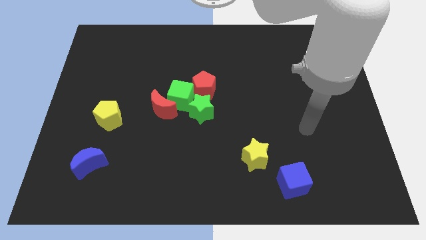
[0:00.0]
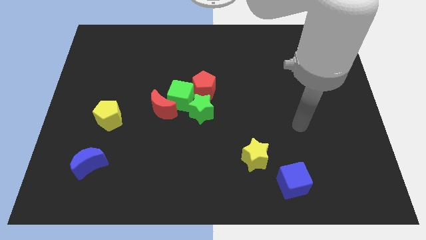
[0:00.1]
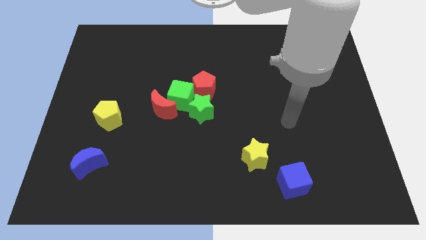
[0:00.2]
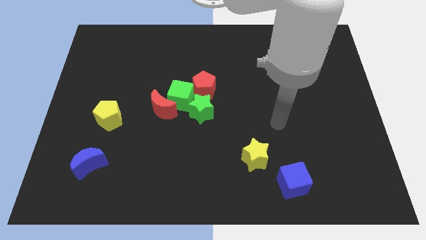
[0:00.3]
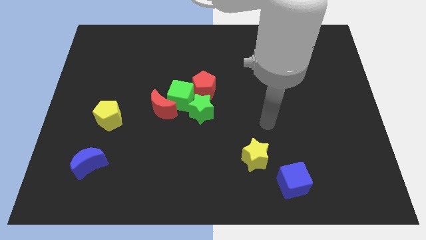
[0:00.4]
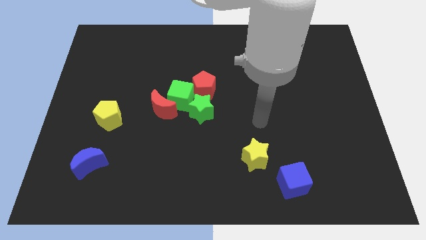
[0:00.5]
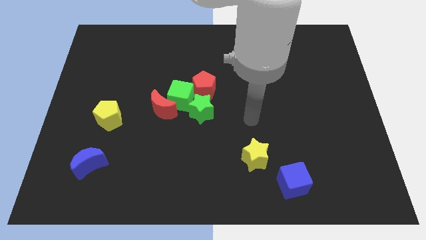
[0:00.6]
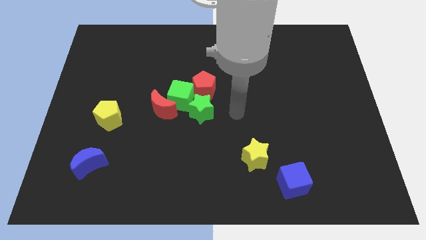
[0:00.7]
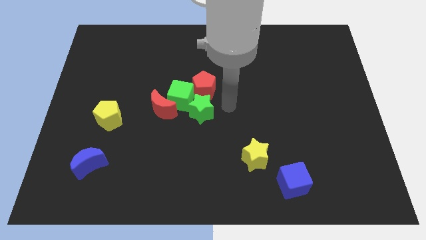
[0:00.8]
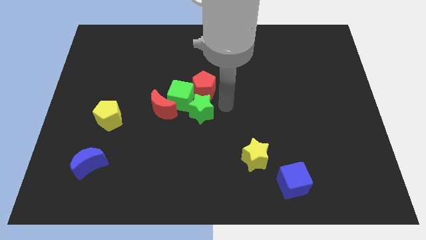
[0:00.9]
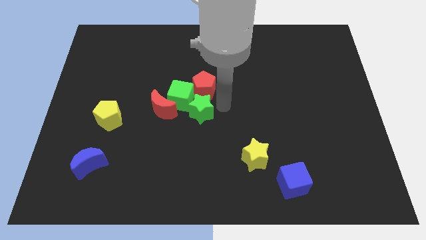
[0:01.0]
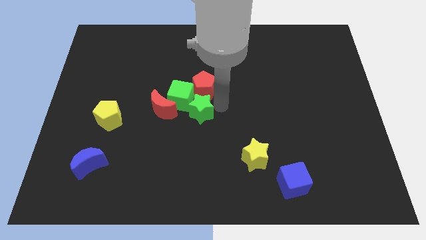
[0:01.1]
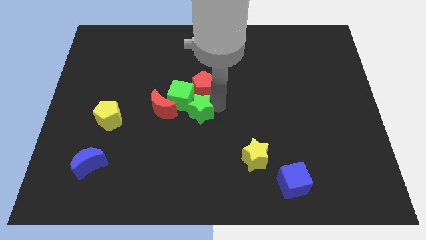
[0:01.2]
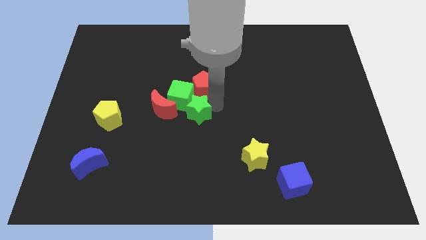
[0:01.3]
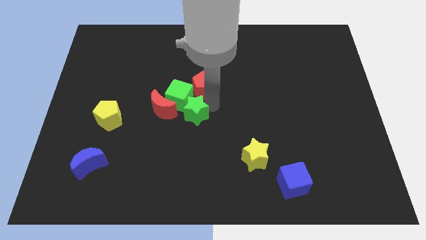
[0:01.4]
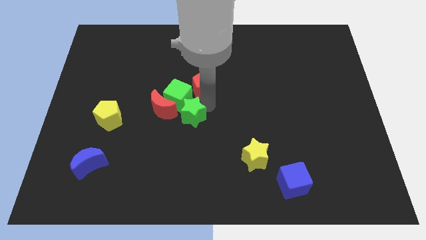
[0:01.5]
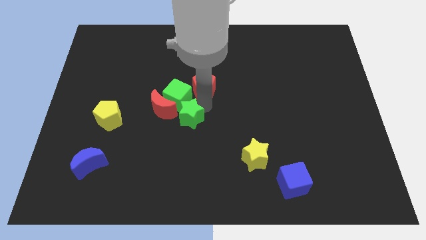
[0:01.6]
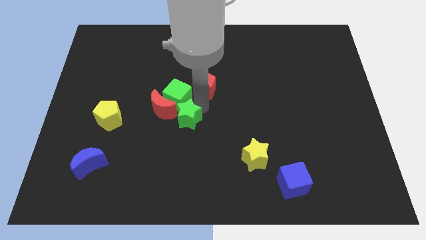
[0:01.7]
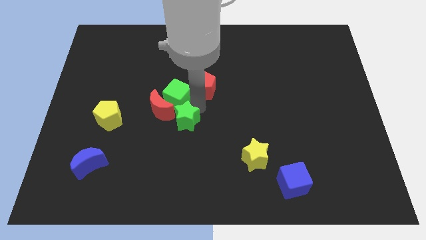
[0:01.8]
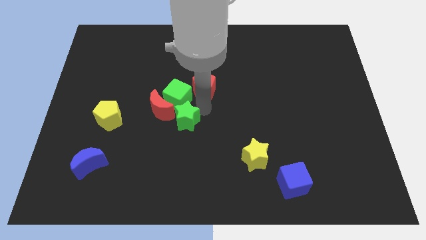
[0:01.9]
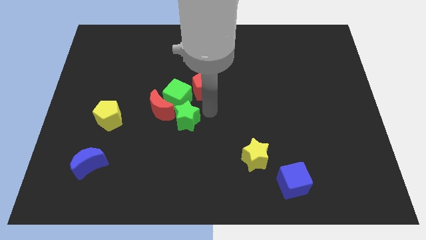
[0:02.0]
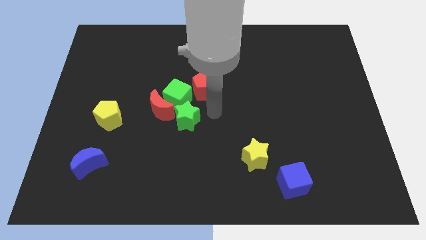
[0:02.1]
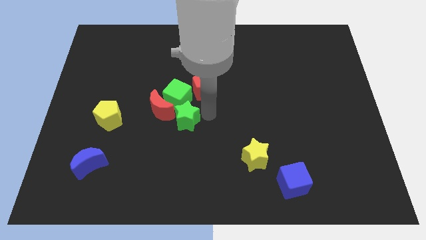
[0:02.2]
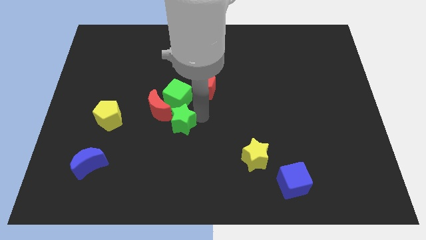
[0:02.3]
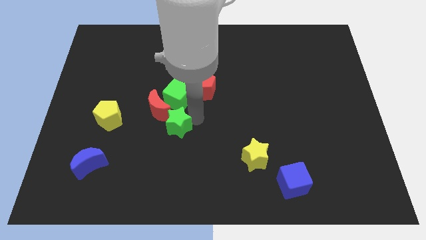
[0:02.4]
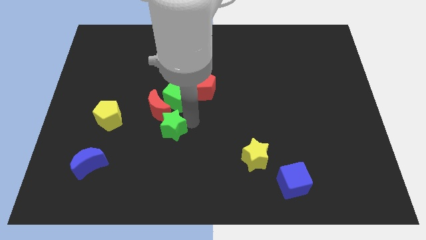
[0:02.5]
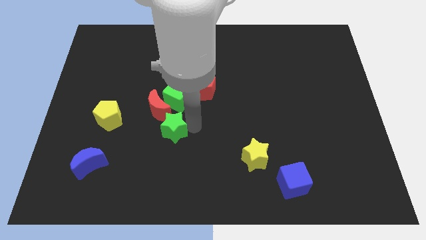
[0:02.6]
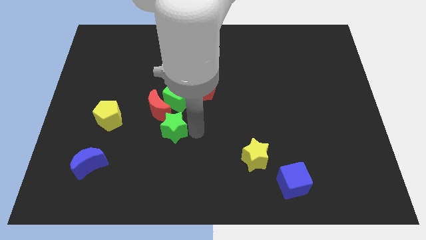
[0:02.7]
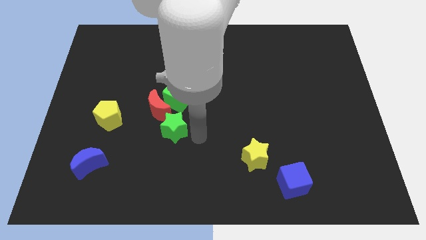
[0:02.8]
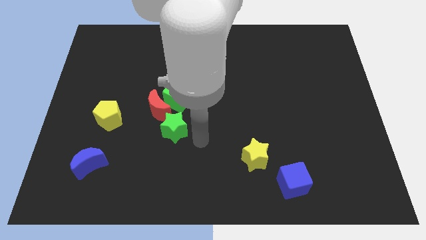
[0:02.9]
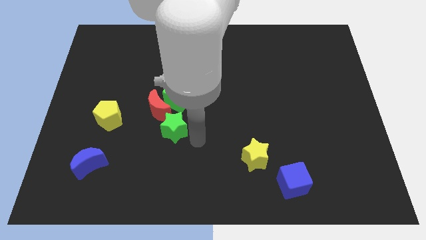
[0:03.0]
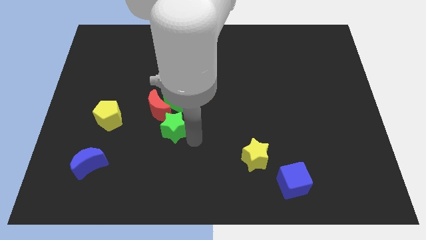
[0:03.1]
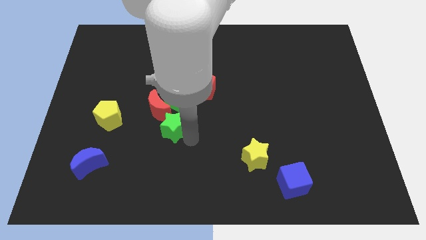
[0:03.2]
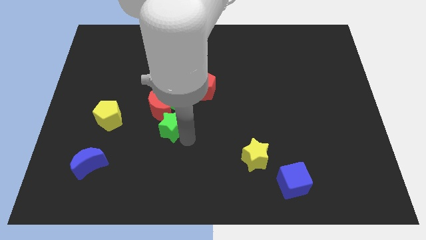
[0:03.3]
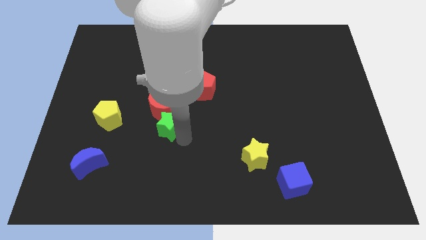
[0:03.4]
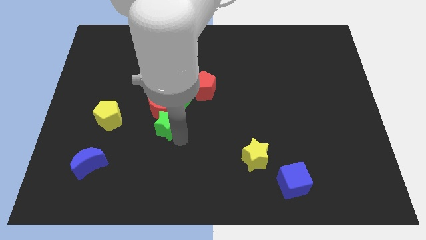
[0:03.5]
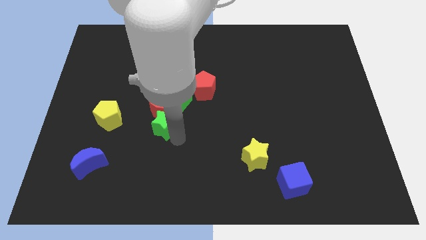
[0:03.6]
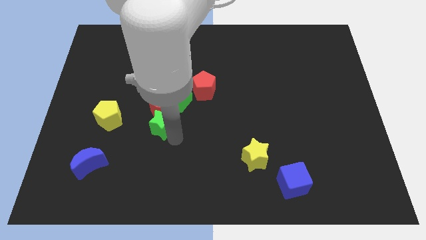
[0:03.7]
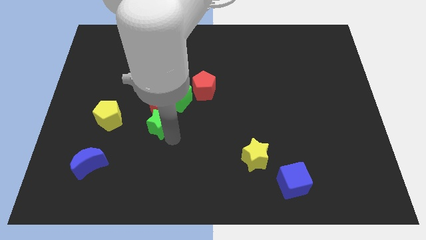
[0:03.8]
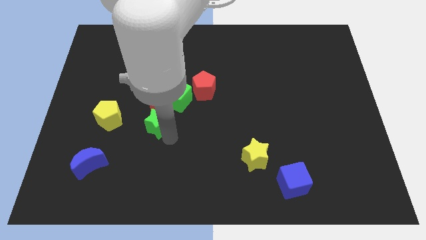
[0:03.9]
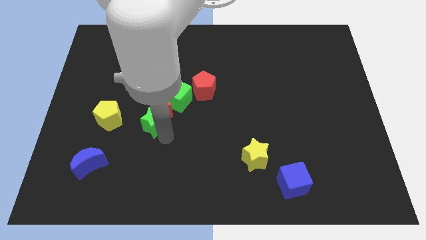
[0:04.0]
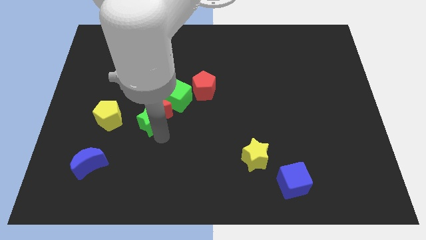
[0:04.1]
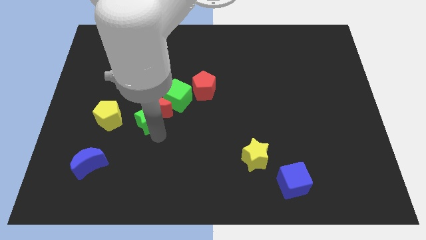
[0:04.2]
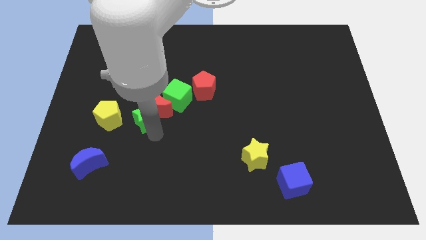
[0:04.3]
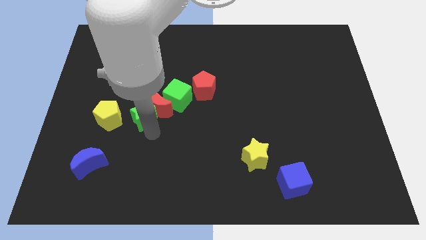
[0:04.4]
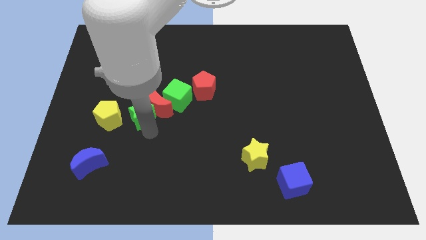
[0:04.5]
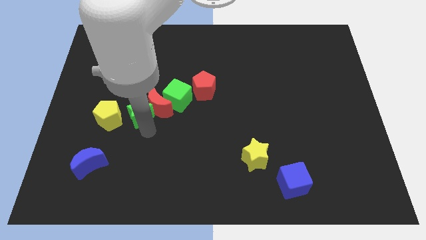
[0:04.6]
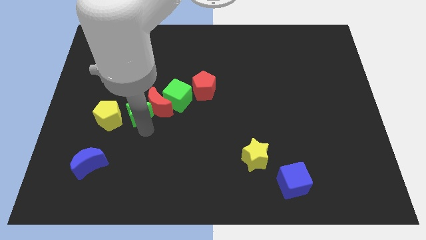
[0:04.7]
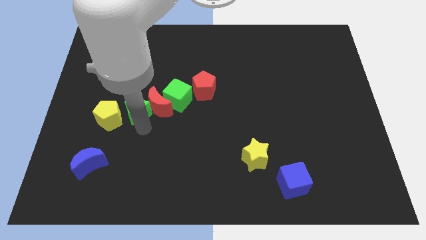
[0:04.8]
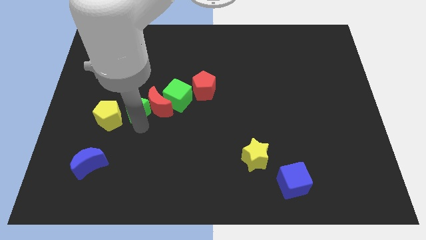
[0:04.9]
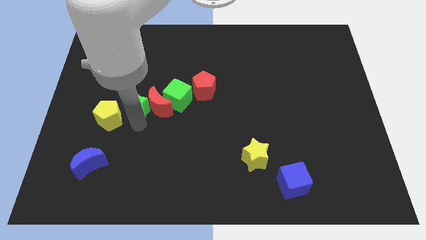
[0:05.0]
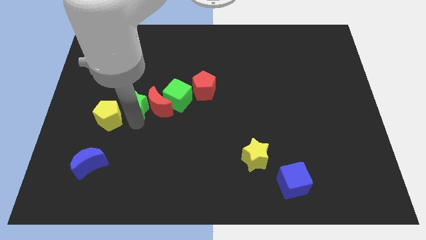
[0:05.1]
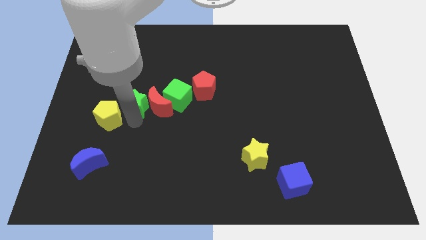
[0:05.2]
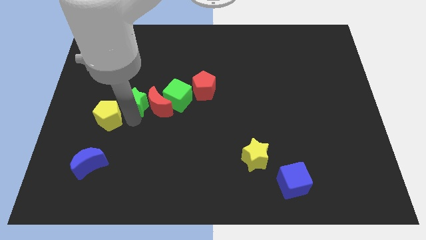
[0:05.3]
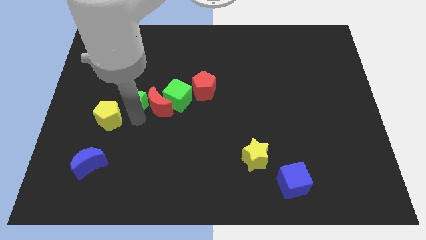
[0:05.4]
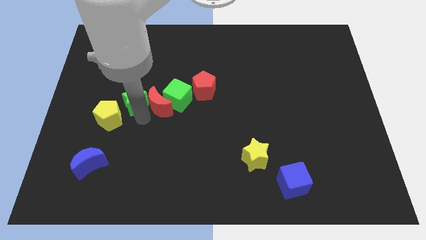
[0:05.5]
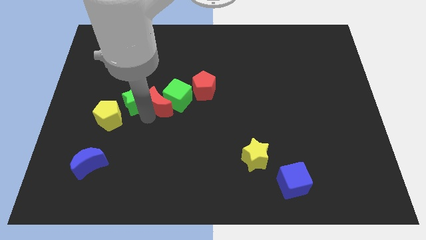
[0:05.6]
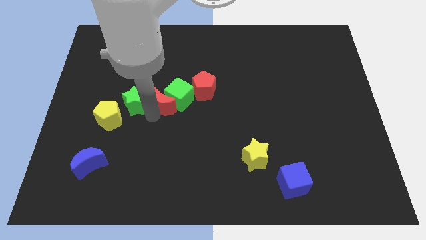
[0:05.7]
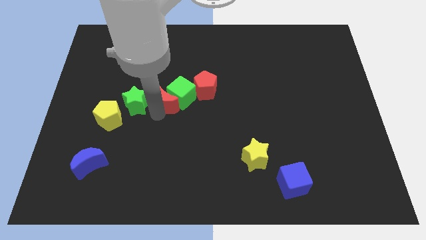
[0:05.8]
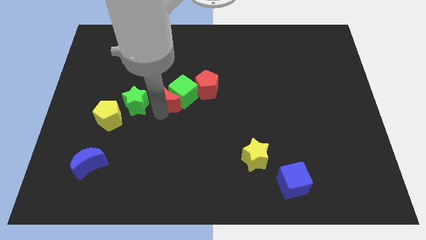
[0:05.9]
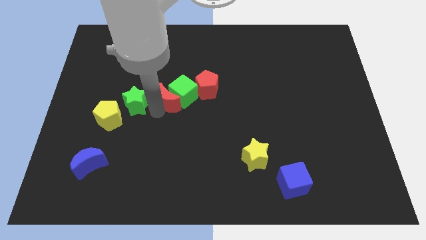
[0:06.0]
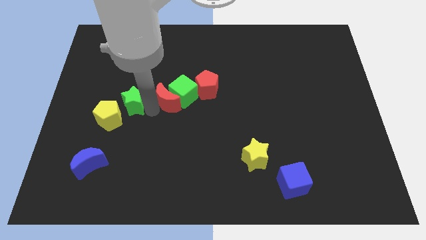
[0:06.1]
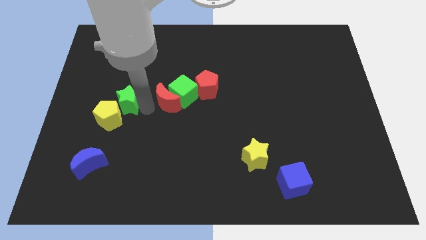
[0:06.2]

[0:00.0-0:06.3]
push the green star above the yellow pentagon

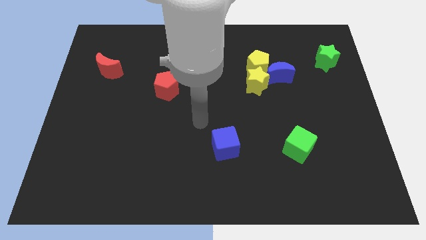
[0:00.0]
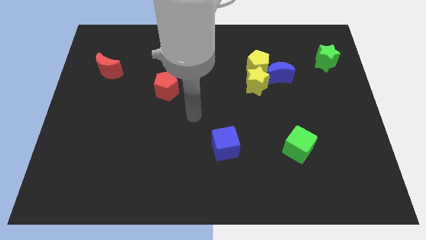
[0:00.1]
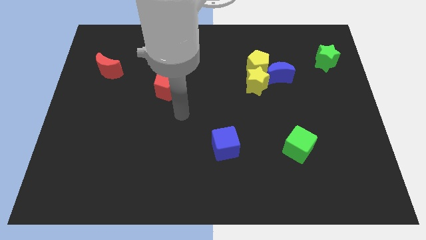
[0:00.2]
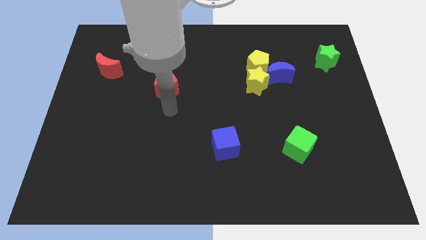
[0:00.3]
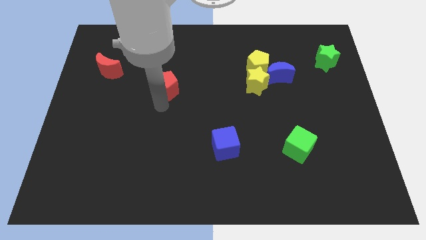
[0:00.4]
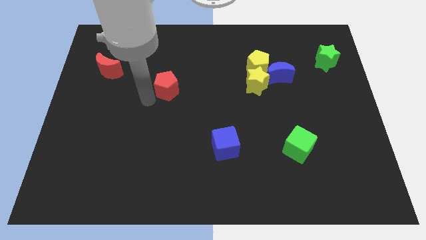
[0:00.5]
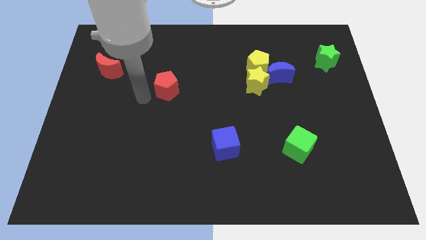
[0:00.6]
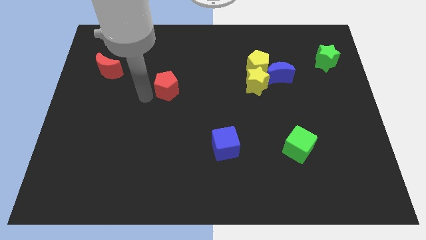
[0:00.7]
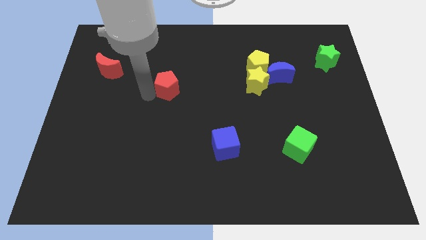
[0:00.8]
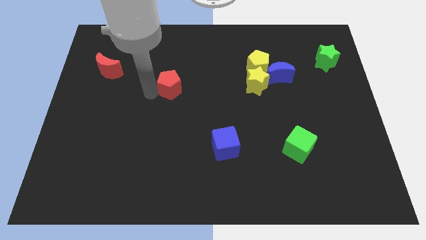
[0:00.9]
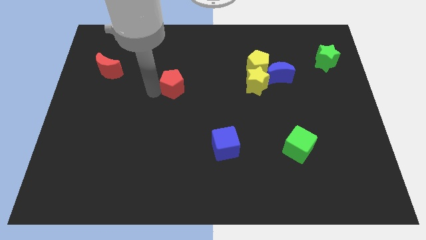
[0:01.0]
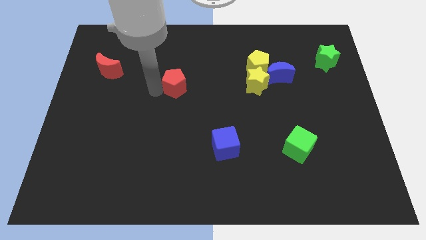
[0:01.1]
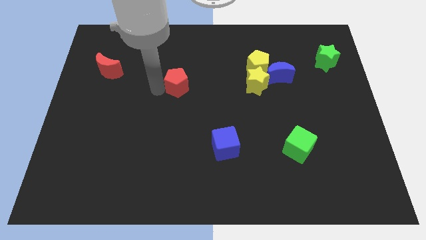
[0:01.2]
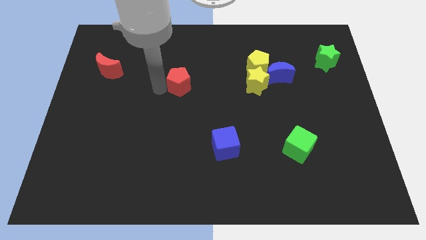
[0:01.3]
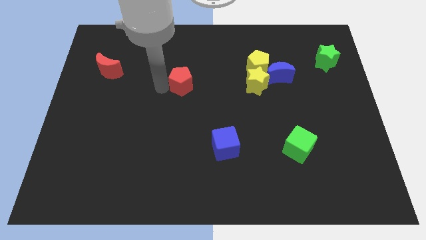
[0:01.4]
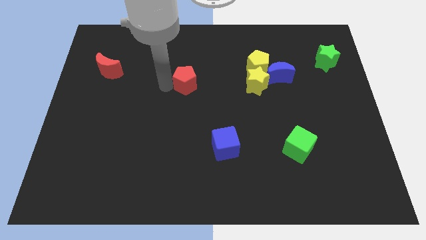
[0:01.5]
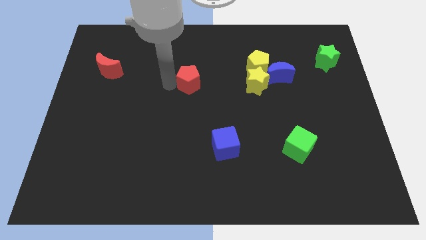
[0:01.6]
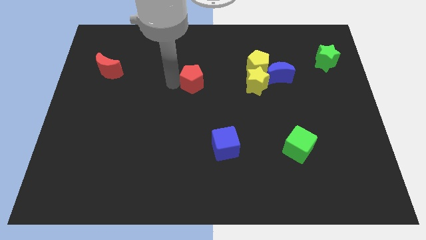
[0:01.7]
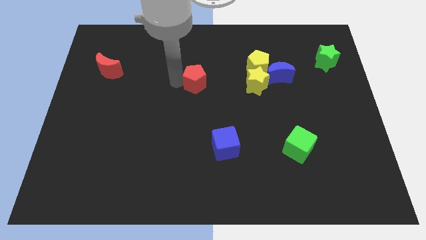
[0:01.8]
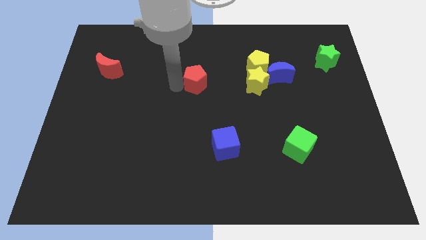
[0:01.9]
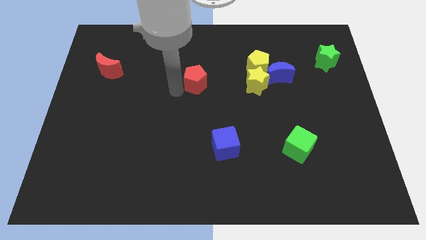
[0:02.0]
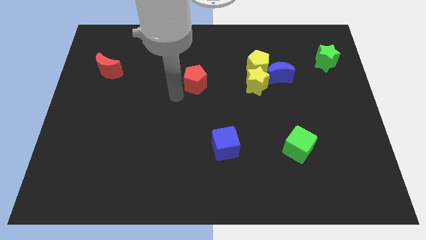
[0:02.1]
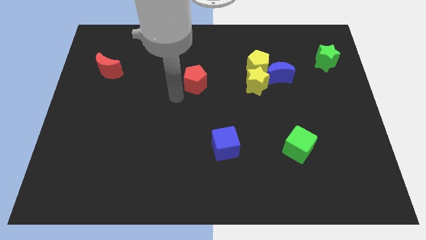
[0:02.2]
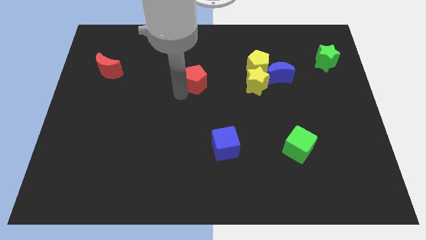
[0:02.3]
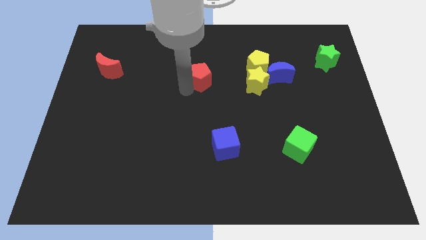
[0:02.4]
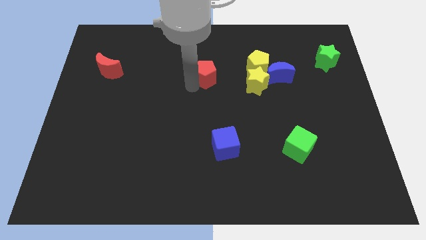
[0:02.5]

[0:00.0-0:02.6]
put the red pentagon to the left of the yellow pentagon
